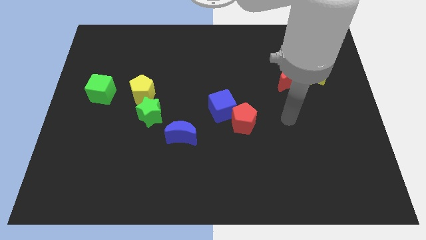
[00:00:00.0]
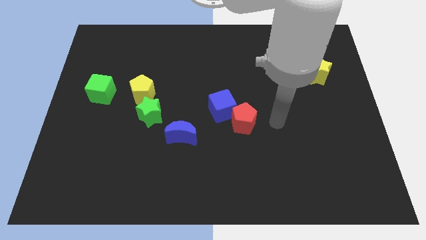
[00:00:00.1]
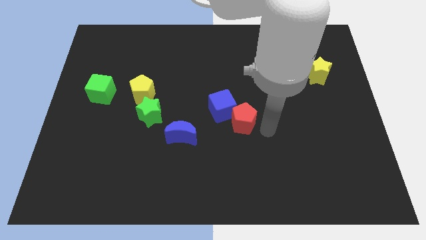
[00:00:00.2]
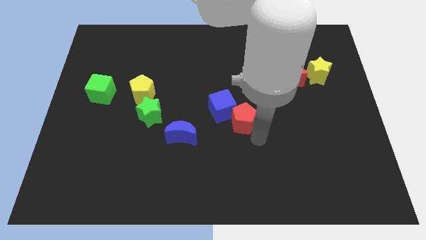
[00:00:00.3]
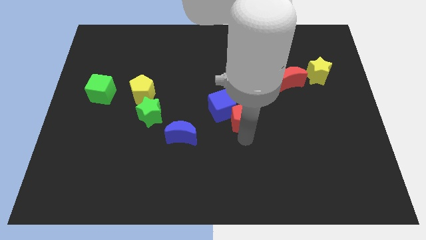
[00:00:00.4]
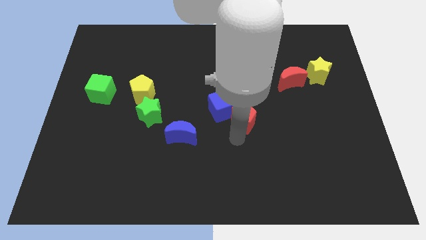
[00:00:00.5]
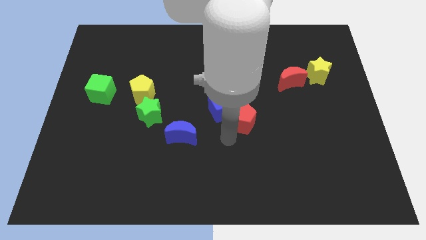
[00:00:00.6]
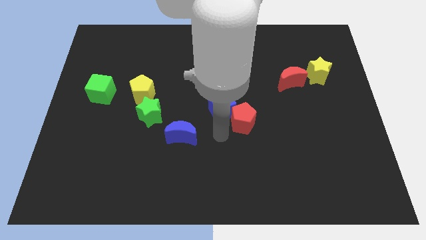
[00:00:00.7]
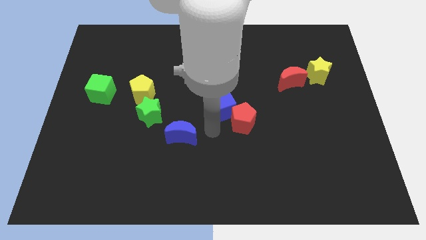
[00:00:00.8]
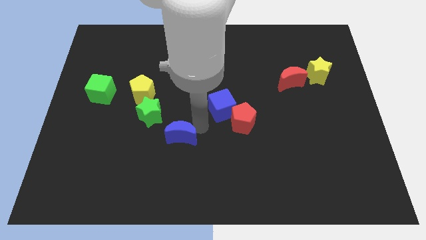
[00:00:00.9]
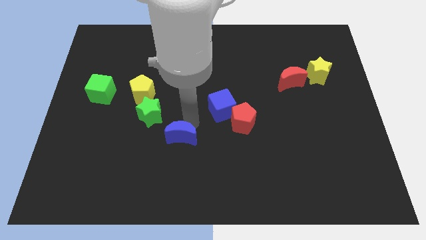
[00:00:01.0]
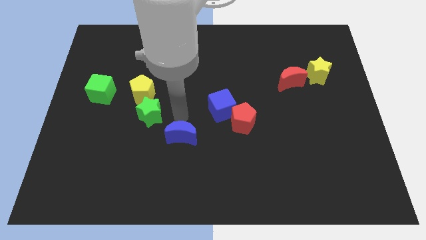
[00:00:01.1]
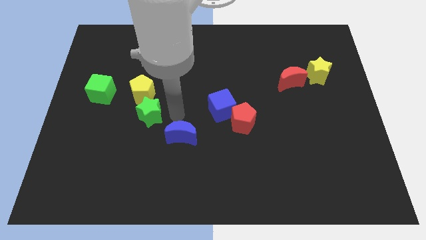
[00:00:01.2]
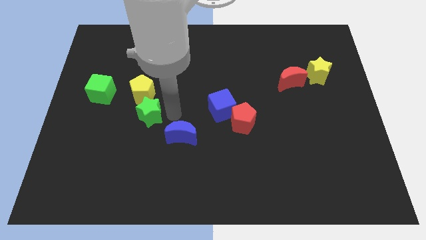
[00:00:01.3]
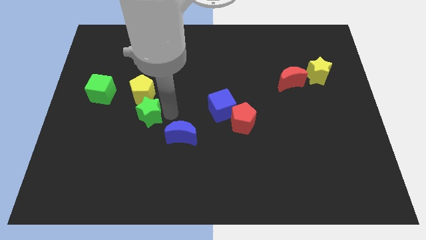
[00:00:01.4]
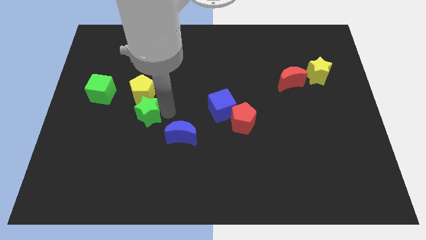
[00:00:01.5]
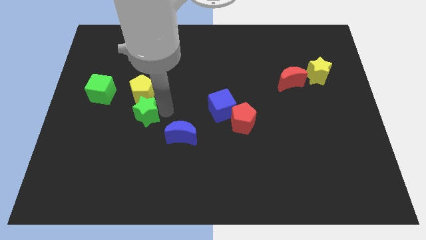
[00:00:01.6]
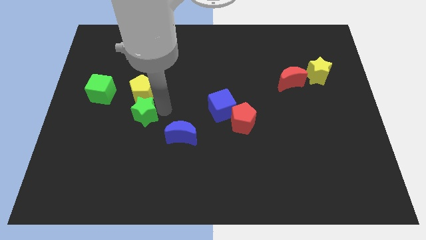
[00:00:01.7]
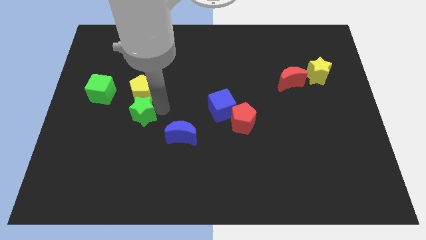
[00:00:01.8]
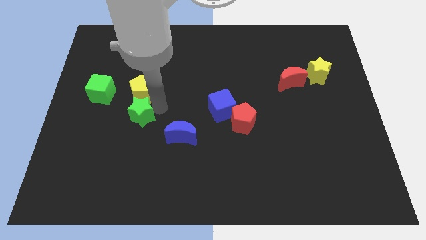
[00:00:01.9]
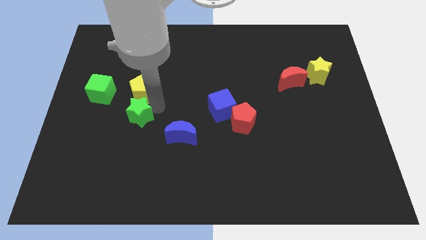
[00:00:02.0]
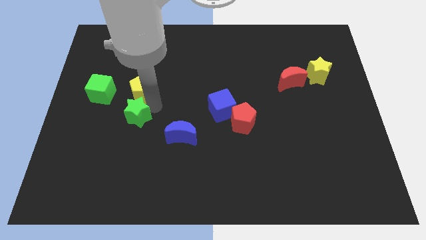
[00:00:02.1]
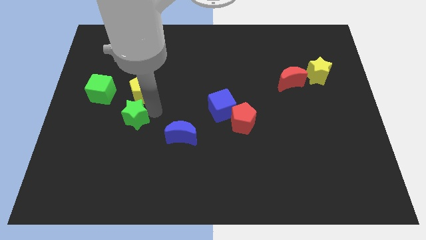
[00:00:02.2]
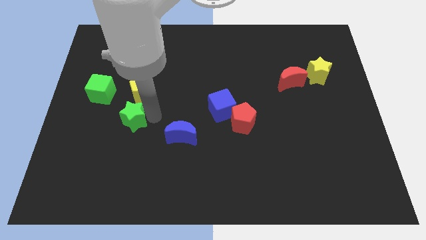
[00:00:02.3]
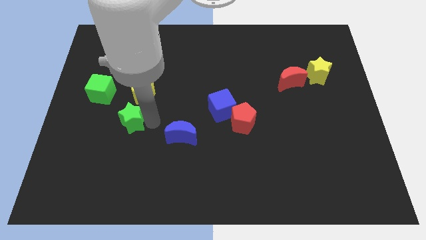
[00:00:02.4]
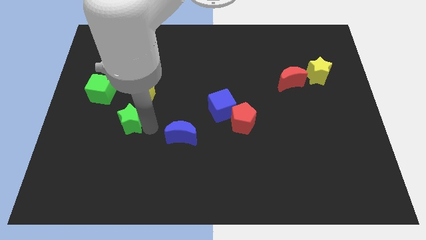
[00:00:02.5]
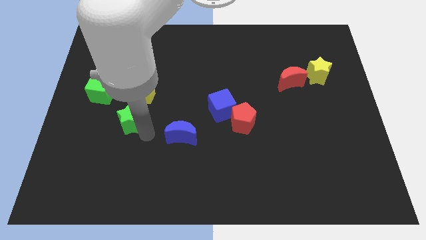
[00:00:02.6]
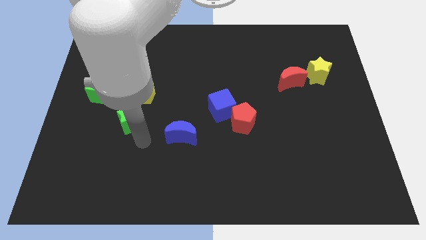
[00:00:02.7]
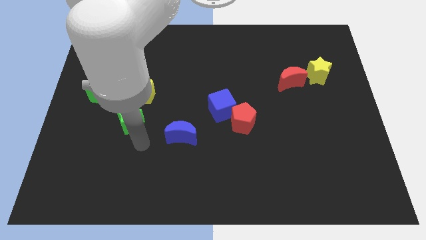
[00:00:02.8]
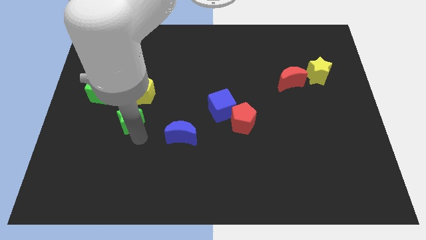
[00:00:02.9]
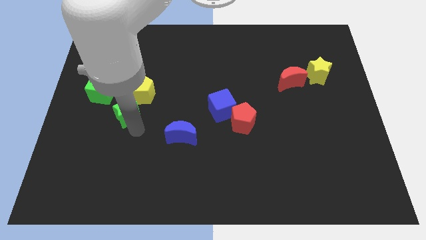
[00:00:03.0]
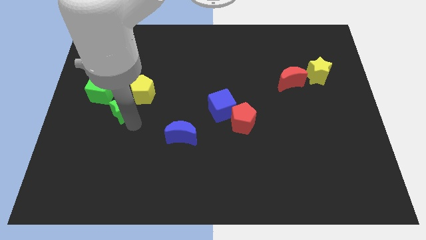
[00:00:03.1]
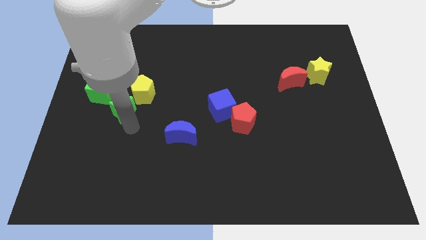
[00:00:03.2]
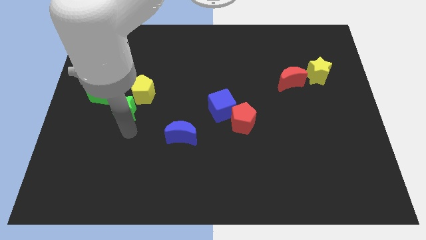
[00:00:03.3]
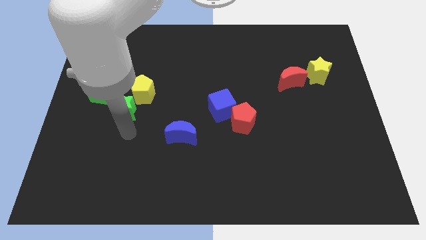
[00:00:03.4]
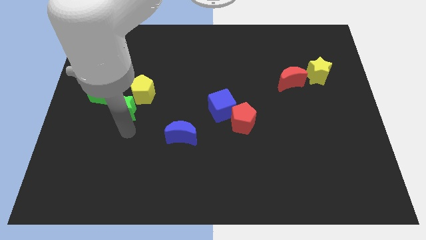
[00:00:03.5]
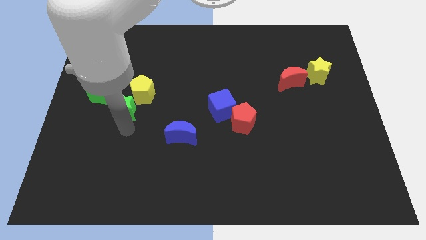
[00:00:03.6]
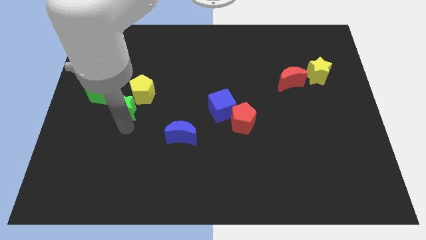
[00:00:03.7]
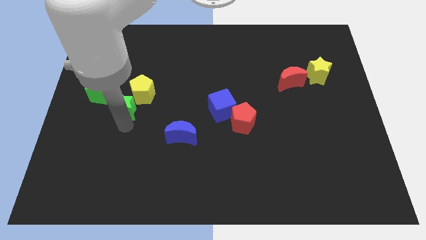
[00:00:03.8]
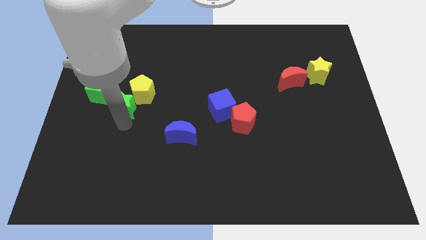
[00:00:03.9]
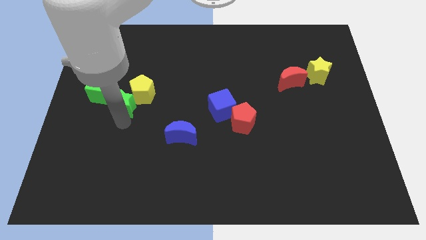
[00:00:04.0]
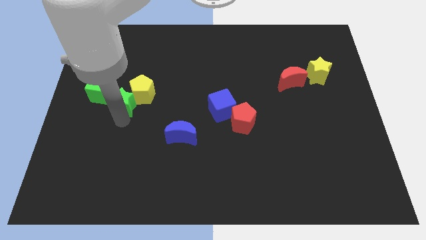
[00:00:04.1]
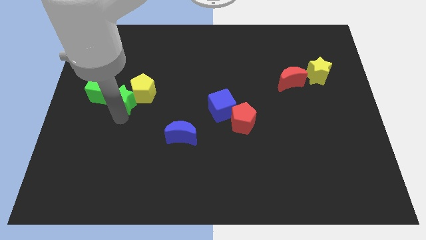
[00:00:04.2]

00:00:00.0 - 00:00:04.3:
slightly move the green star up and then left

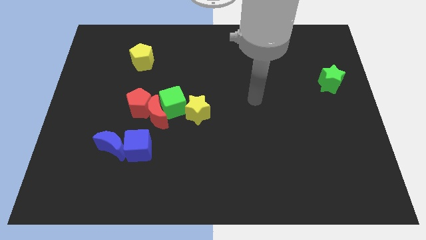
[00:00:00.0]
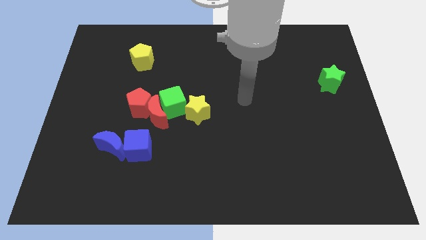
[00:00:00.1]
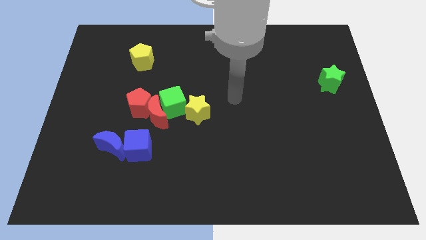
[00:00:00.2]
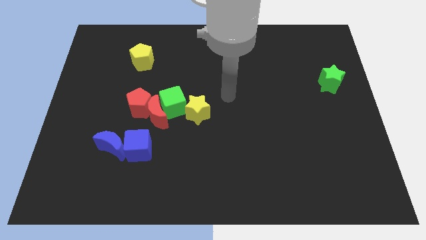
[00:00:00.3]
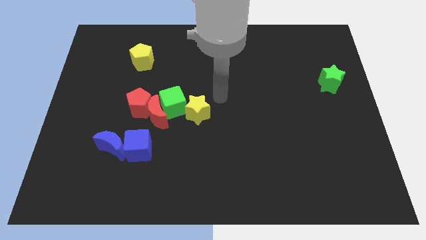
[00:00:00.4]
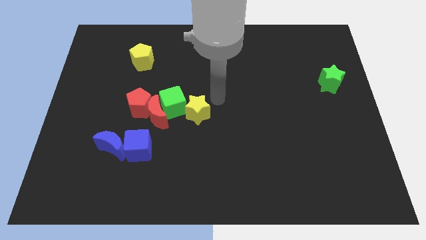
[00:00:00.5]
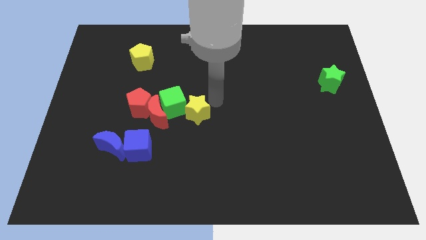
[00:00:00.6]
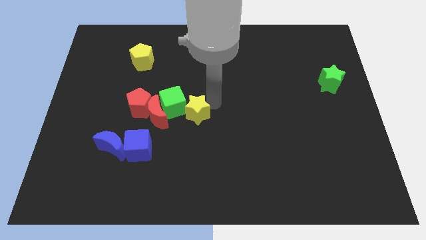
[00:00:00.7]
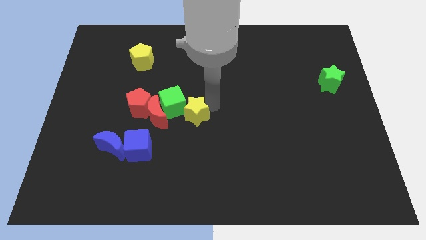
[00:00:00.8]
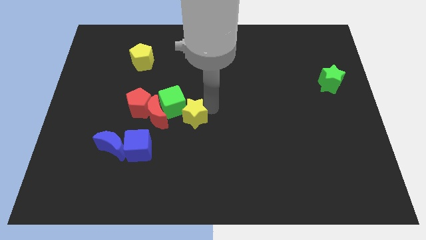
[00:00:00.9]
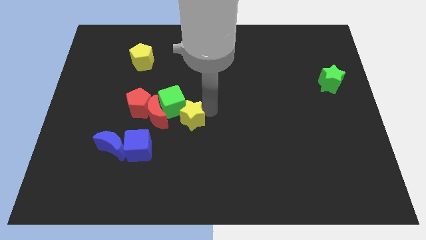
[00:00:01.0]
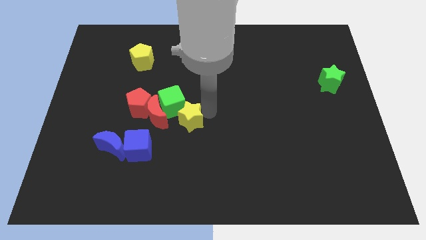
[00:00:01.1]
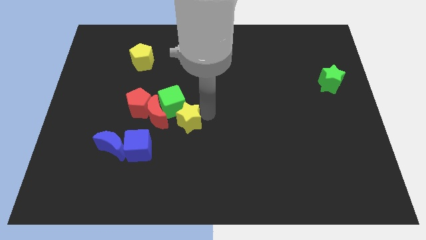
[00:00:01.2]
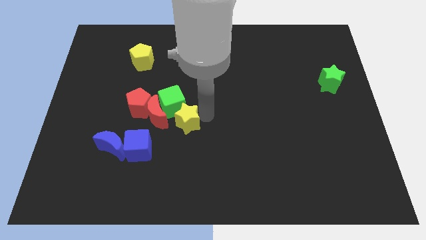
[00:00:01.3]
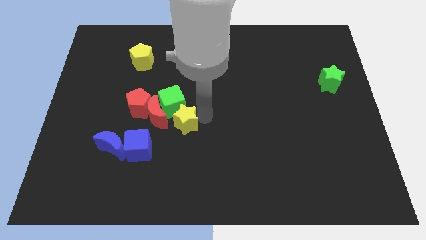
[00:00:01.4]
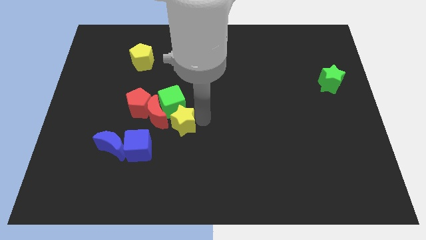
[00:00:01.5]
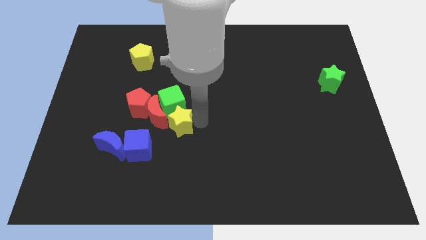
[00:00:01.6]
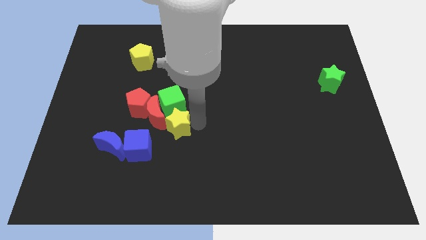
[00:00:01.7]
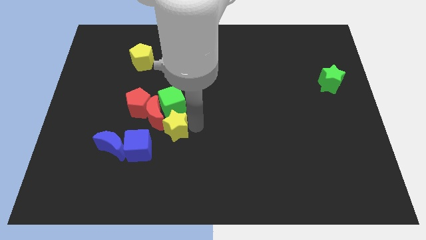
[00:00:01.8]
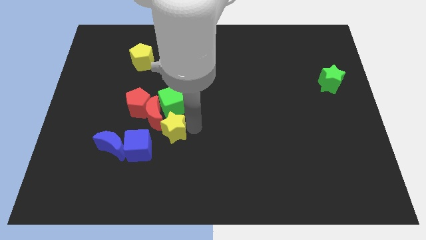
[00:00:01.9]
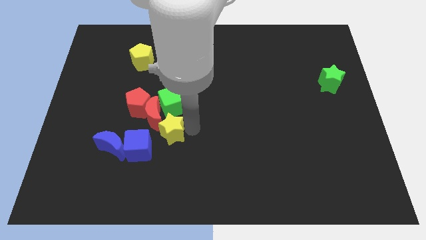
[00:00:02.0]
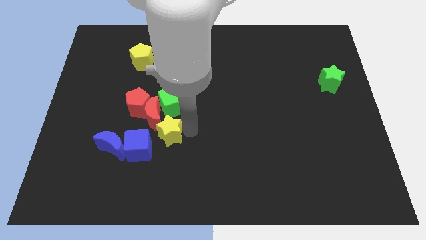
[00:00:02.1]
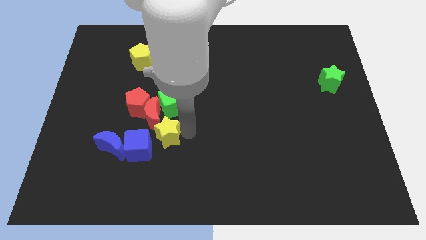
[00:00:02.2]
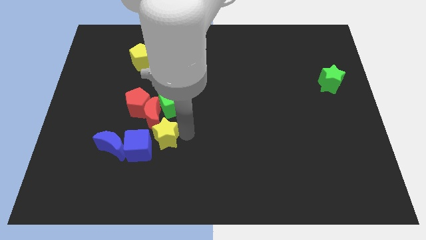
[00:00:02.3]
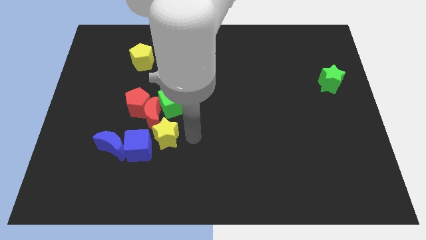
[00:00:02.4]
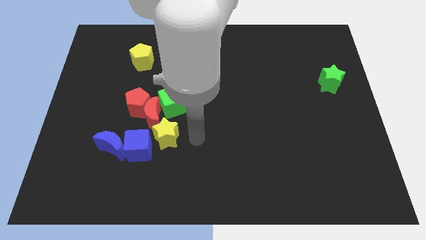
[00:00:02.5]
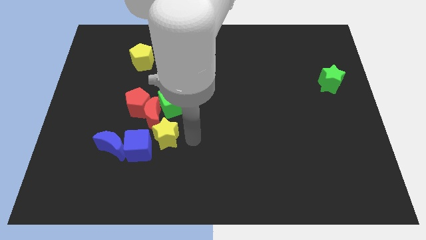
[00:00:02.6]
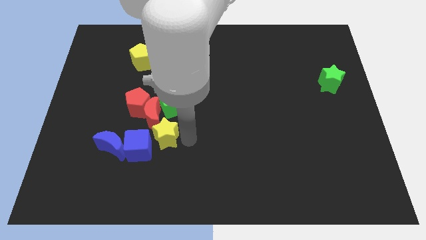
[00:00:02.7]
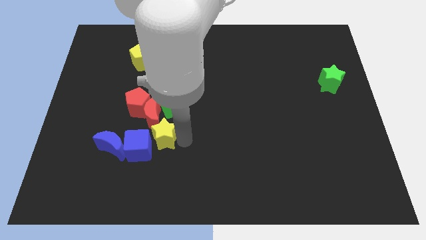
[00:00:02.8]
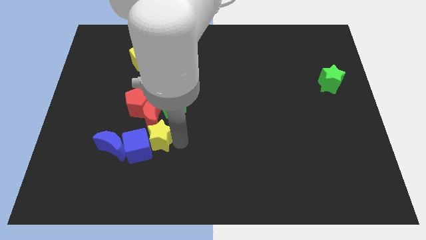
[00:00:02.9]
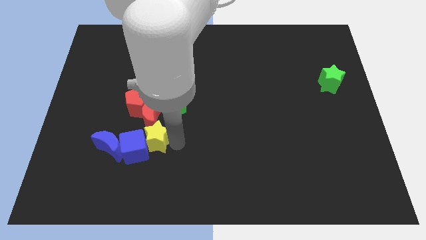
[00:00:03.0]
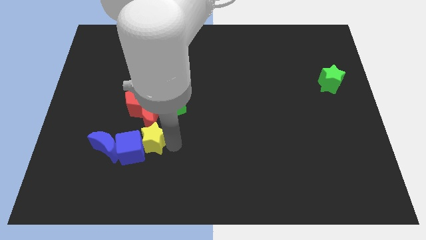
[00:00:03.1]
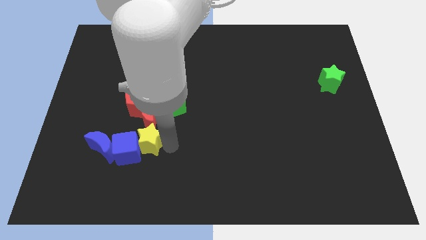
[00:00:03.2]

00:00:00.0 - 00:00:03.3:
slightly slide the yellow star left

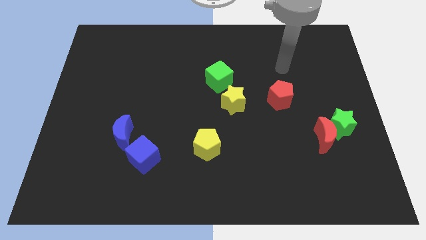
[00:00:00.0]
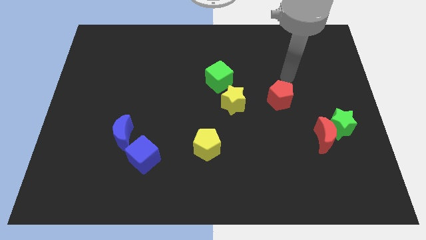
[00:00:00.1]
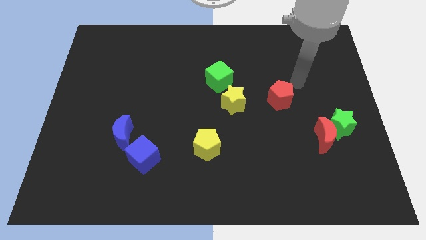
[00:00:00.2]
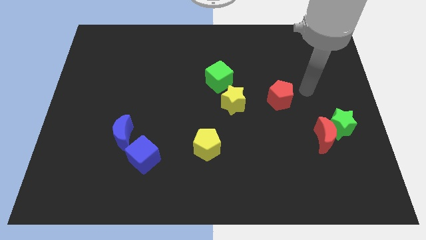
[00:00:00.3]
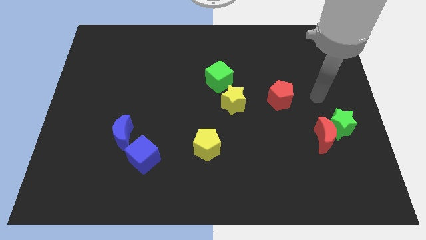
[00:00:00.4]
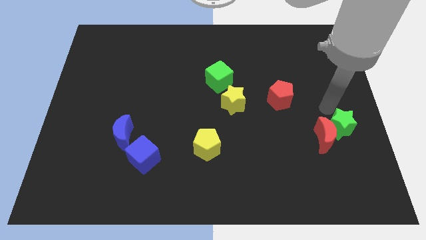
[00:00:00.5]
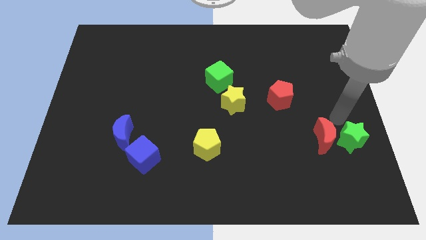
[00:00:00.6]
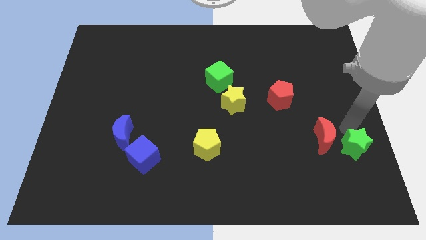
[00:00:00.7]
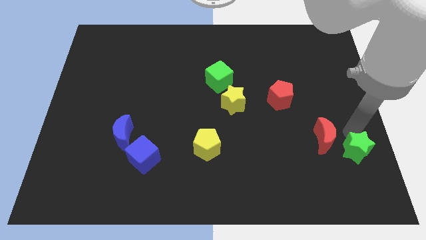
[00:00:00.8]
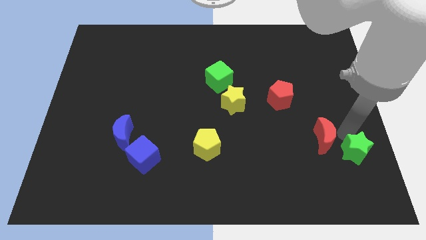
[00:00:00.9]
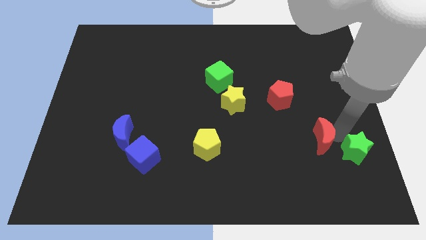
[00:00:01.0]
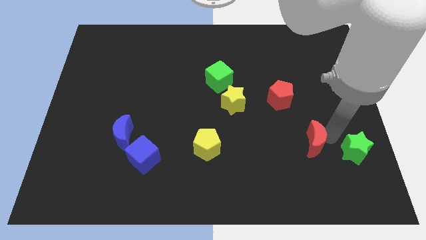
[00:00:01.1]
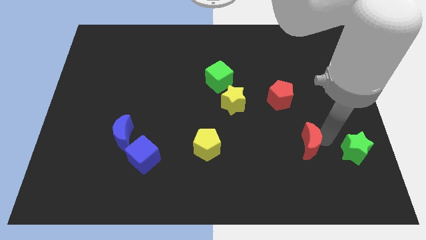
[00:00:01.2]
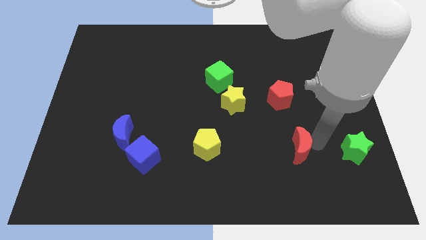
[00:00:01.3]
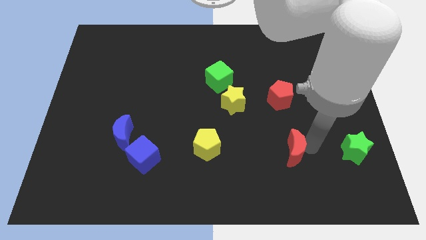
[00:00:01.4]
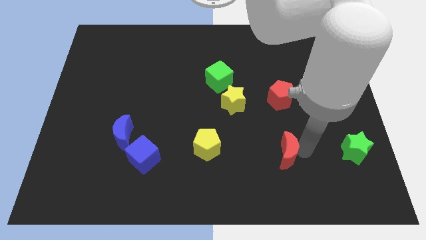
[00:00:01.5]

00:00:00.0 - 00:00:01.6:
move the red moon a little left
